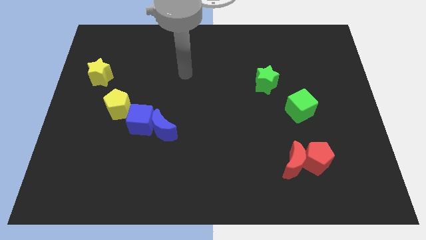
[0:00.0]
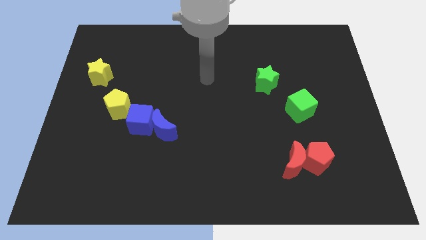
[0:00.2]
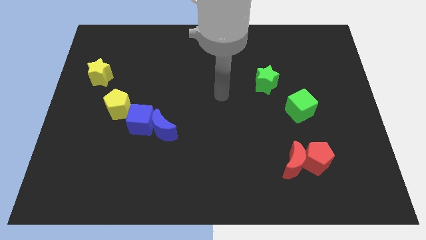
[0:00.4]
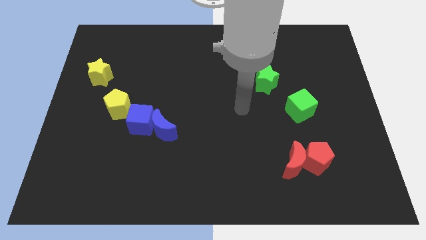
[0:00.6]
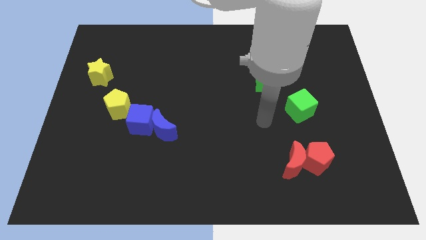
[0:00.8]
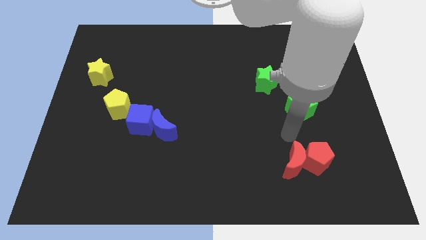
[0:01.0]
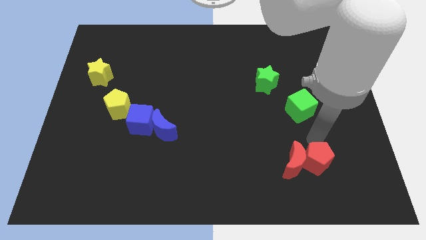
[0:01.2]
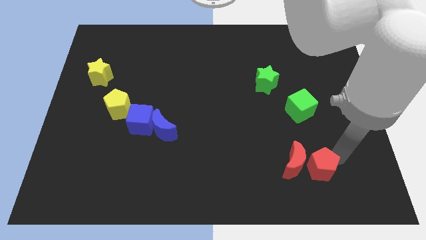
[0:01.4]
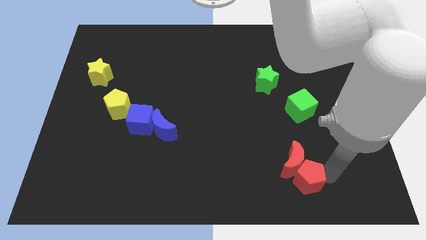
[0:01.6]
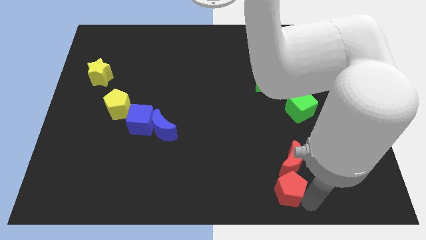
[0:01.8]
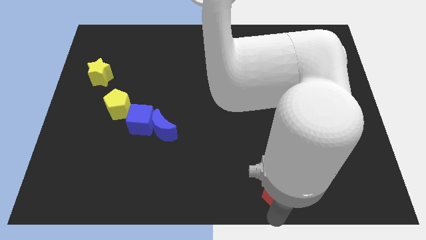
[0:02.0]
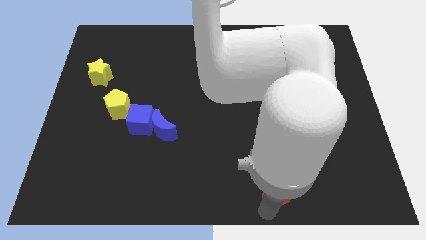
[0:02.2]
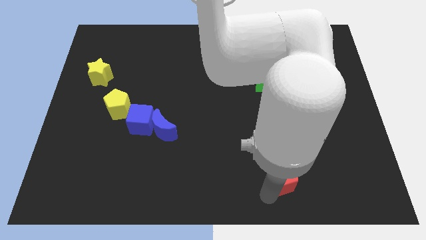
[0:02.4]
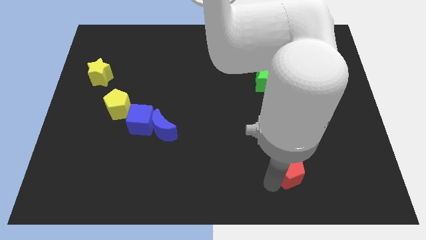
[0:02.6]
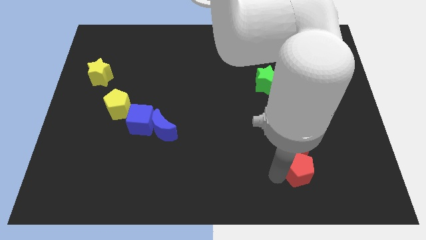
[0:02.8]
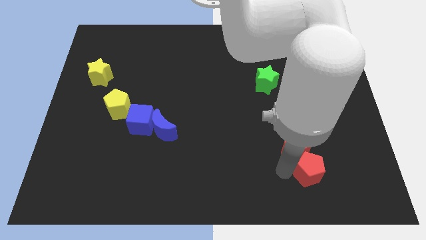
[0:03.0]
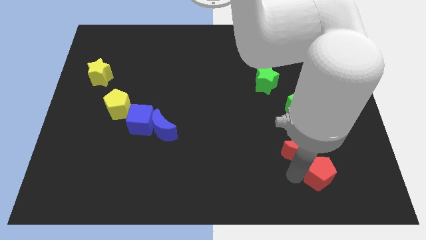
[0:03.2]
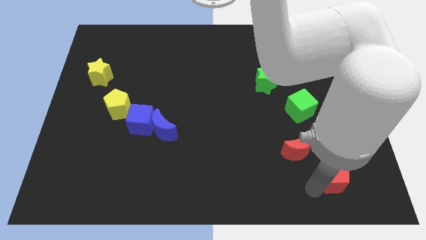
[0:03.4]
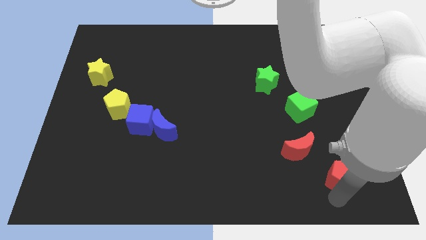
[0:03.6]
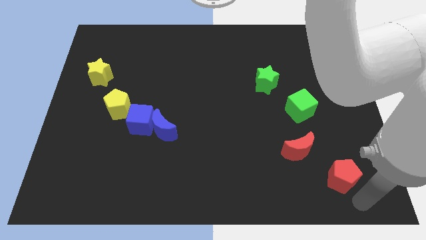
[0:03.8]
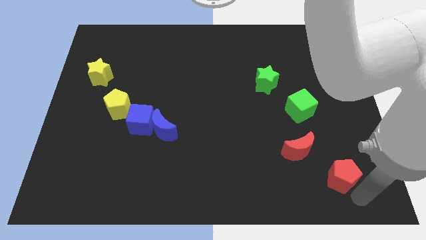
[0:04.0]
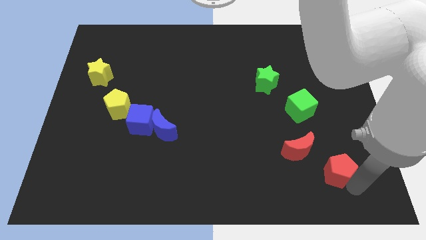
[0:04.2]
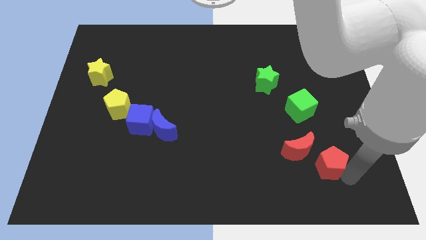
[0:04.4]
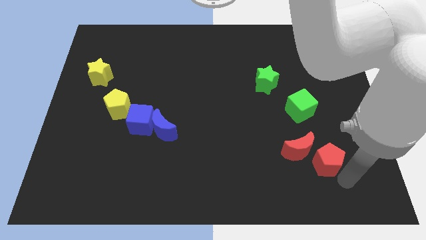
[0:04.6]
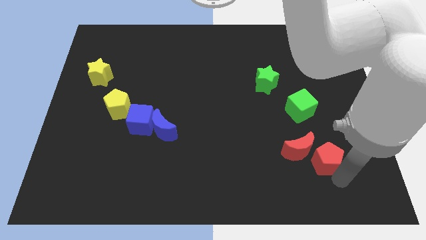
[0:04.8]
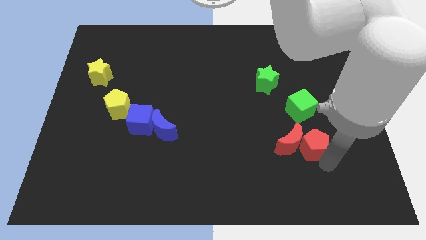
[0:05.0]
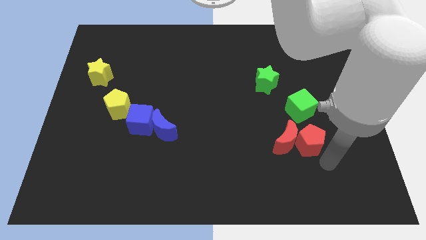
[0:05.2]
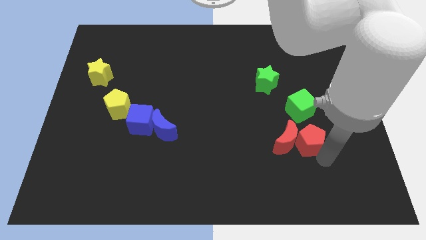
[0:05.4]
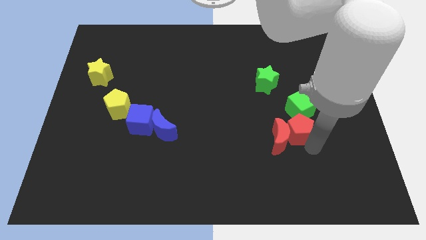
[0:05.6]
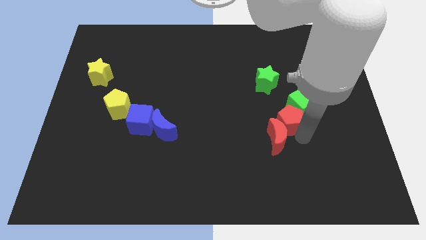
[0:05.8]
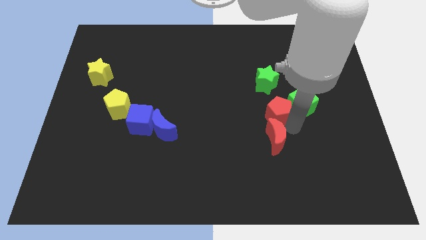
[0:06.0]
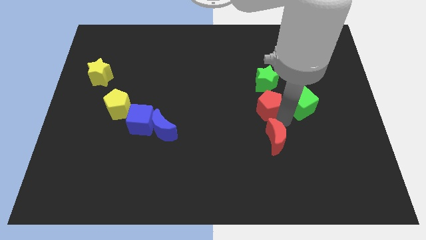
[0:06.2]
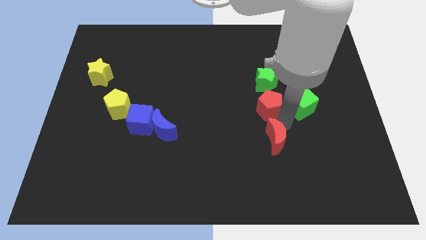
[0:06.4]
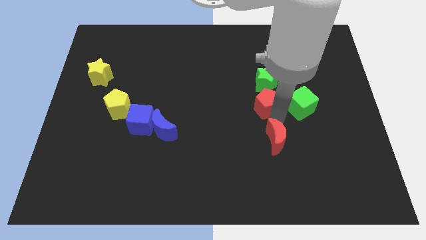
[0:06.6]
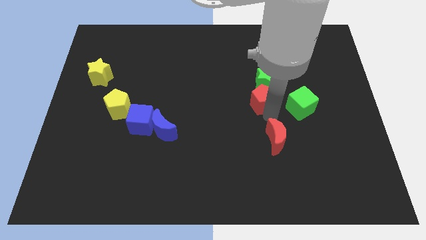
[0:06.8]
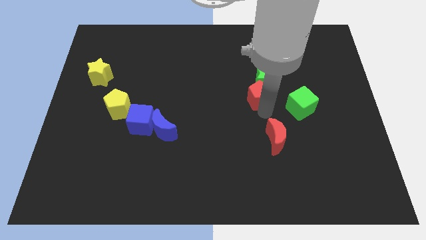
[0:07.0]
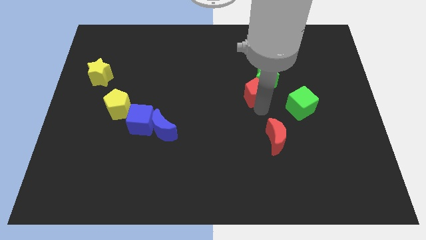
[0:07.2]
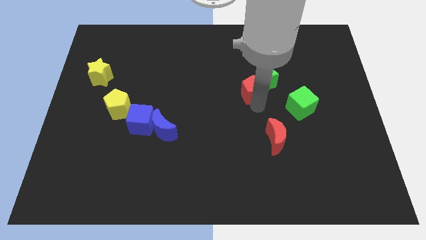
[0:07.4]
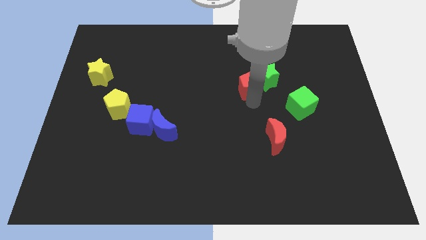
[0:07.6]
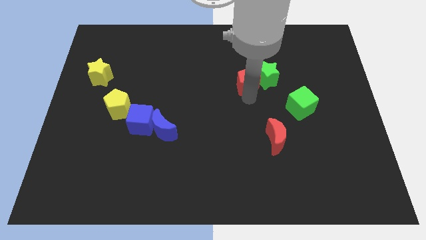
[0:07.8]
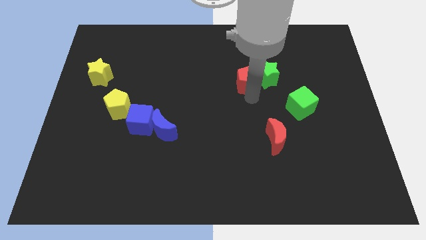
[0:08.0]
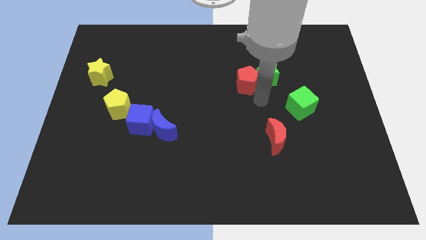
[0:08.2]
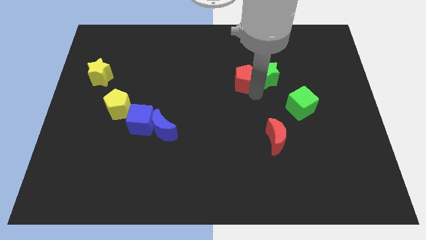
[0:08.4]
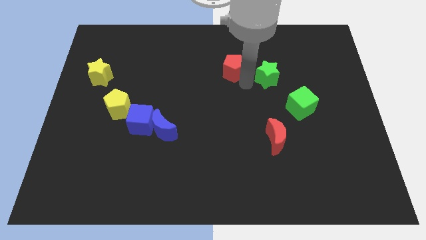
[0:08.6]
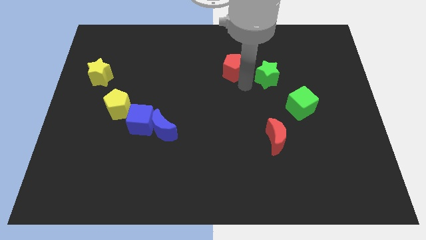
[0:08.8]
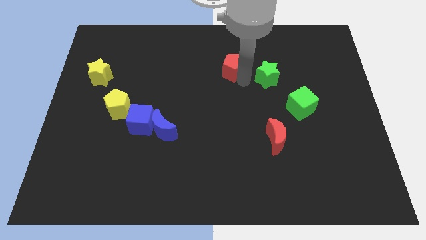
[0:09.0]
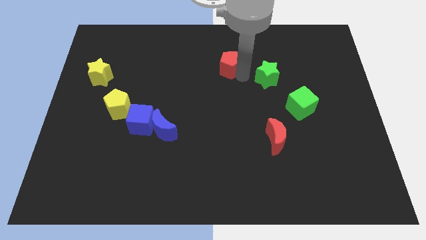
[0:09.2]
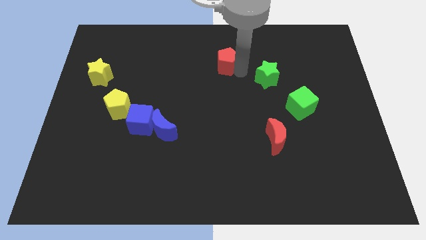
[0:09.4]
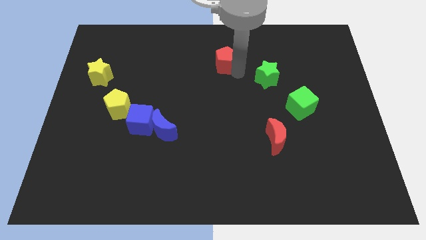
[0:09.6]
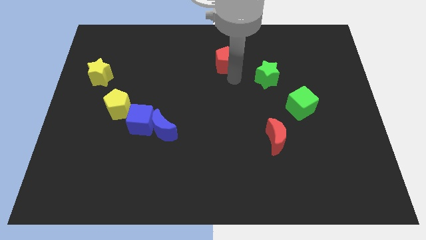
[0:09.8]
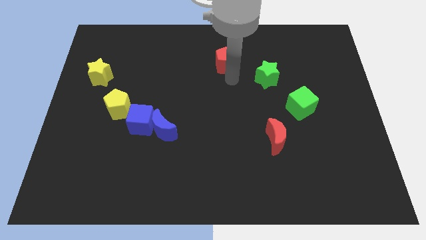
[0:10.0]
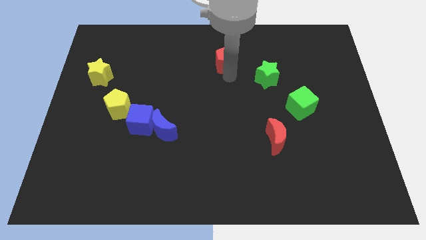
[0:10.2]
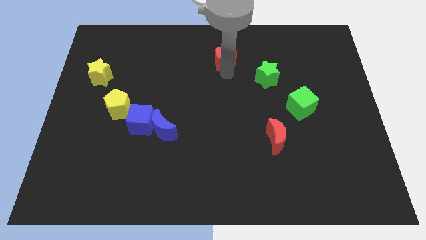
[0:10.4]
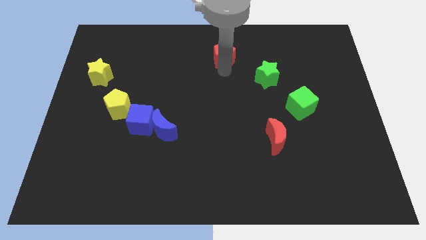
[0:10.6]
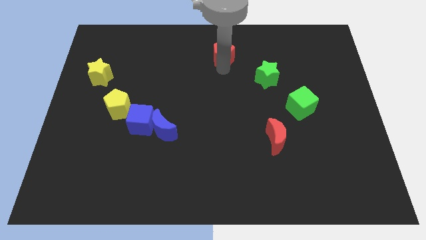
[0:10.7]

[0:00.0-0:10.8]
push the red pentagon to the towards your base
